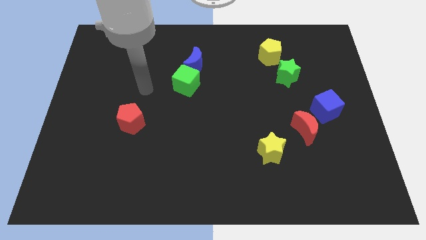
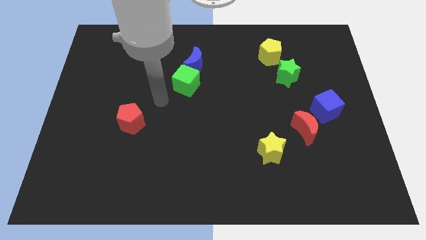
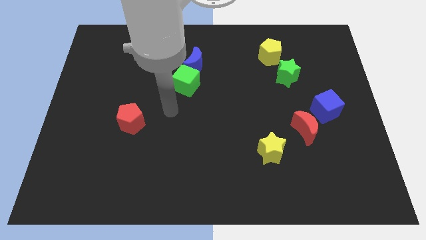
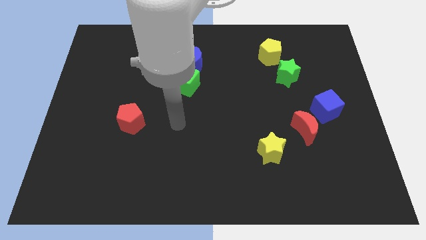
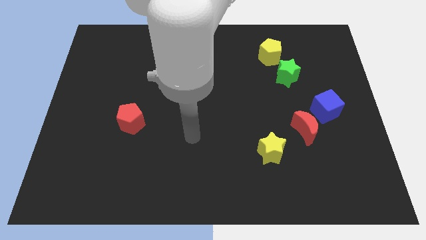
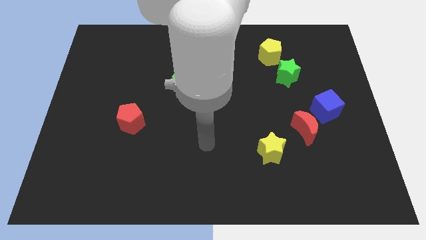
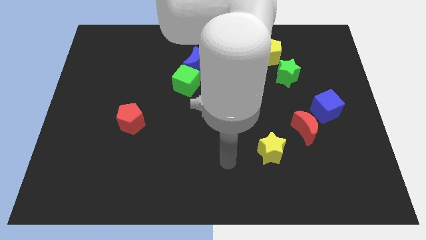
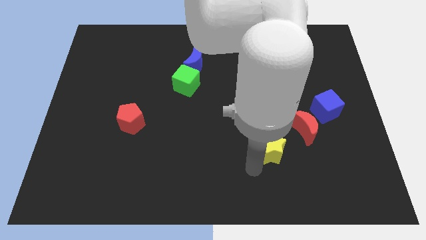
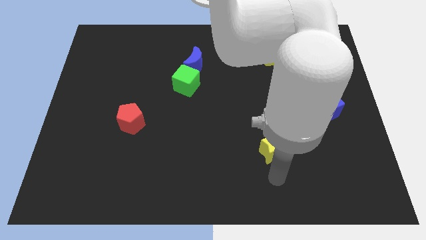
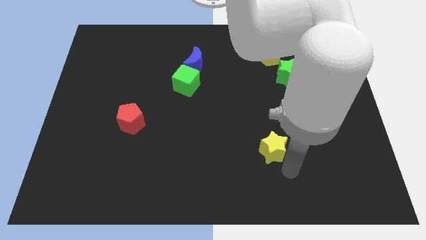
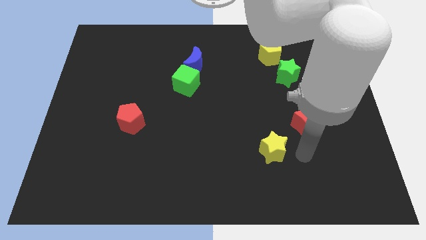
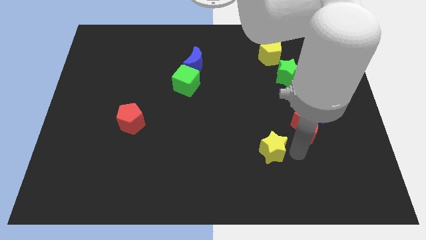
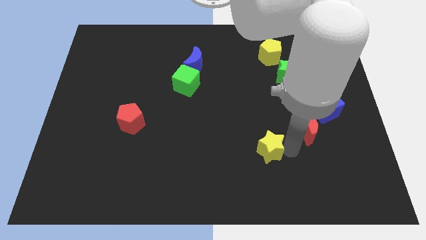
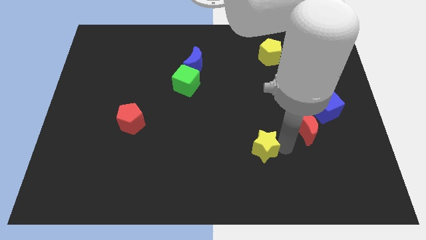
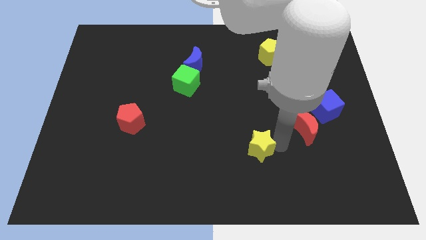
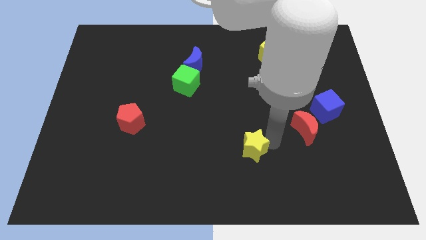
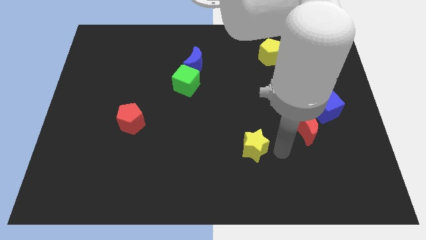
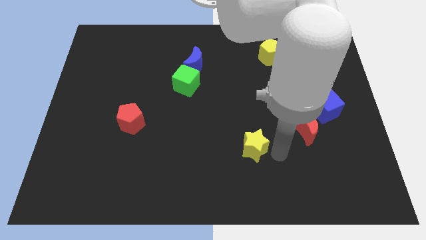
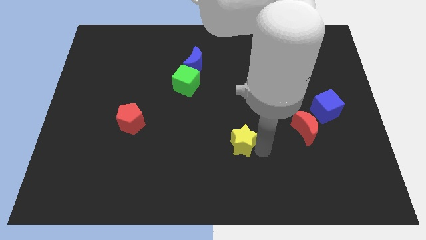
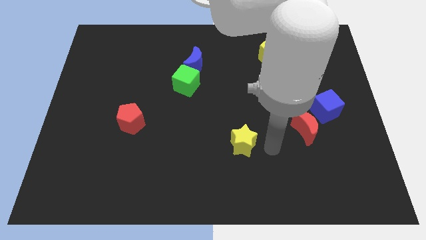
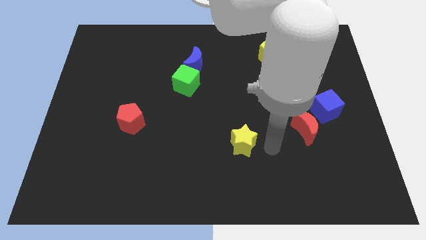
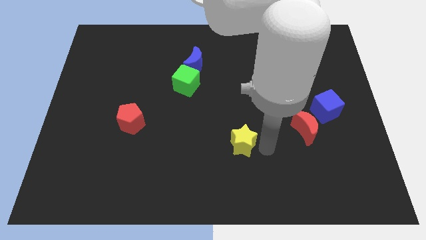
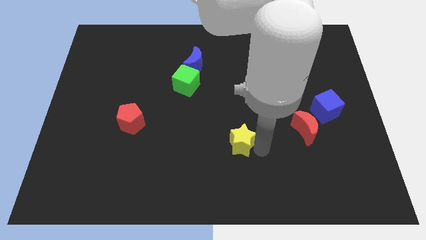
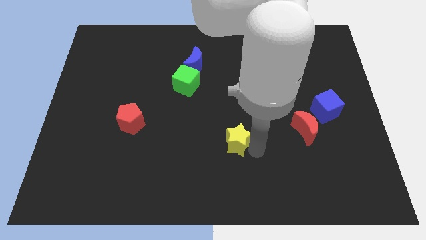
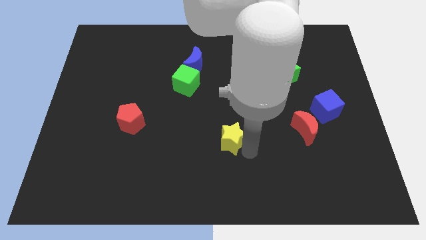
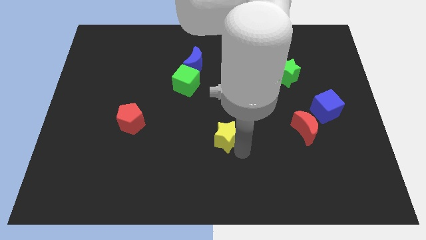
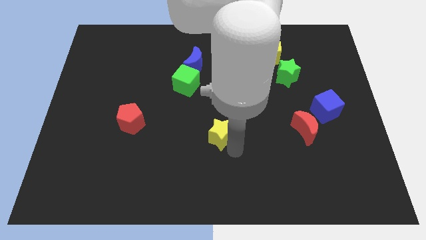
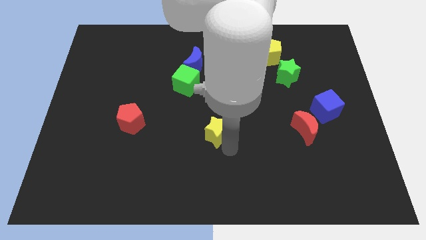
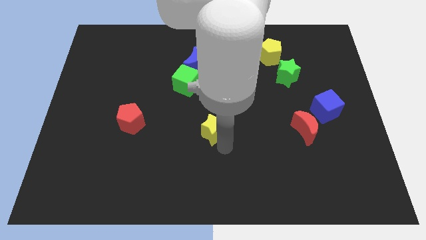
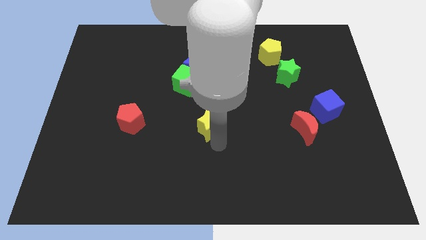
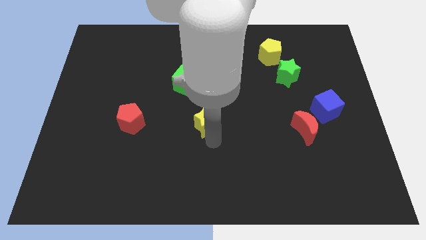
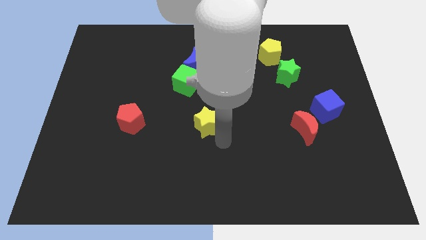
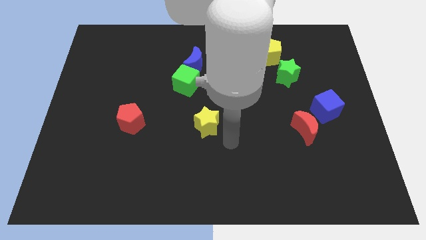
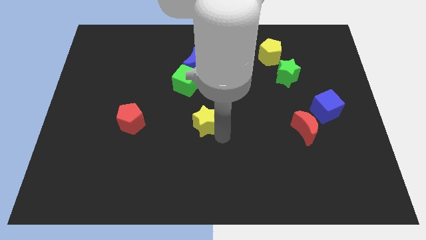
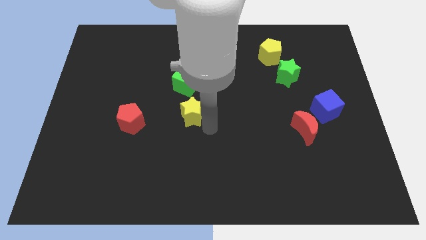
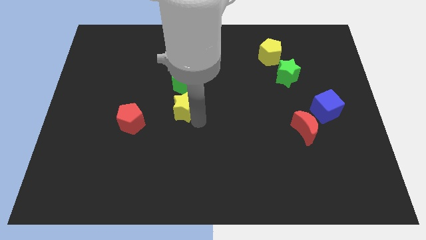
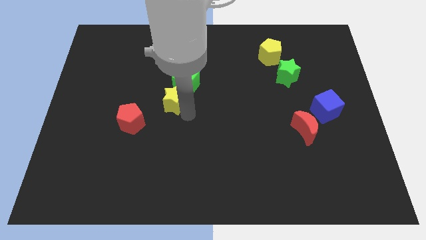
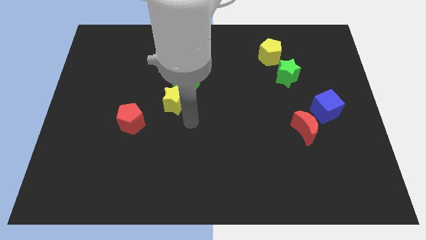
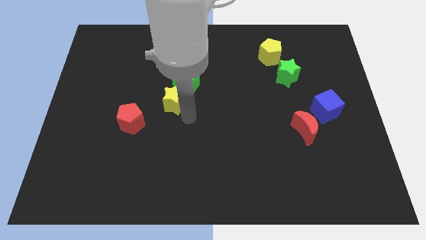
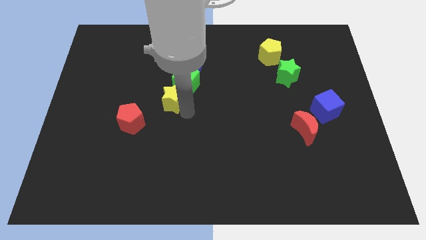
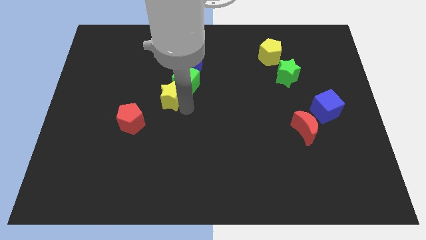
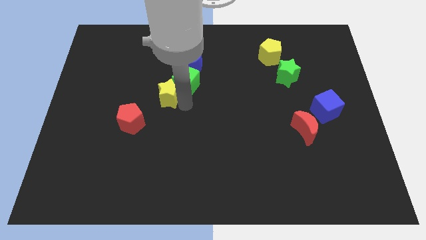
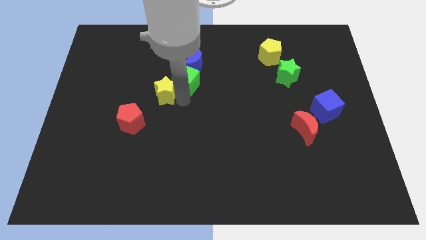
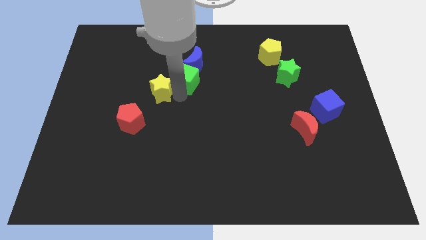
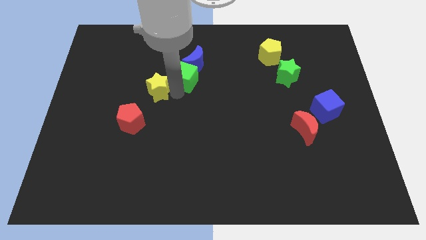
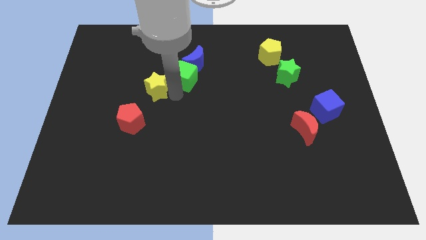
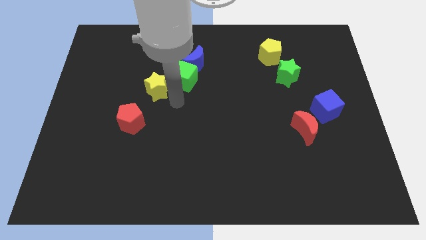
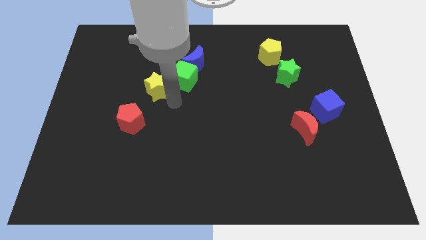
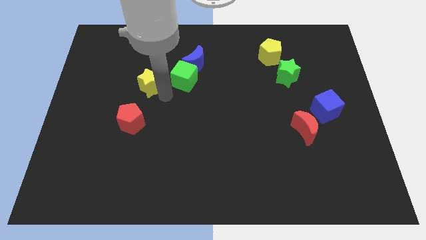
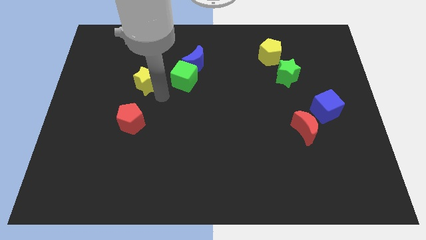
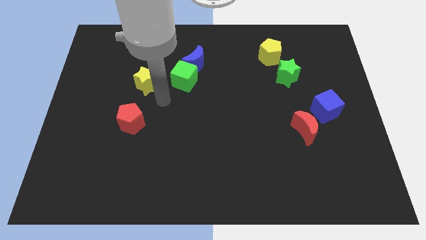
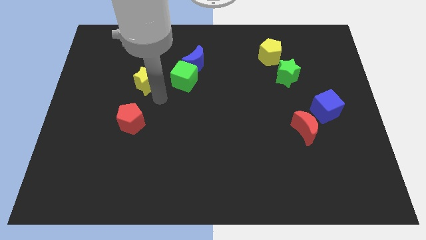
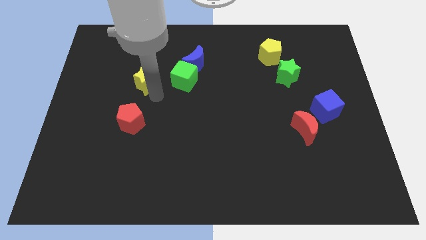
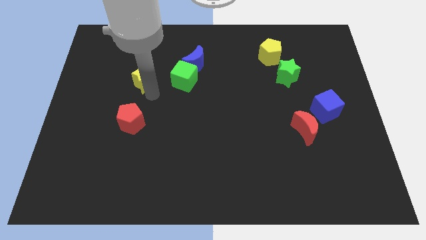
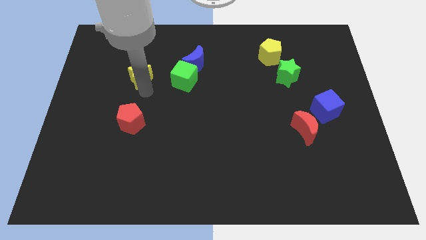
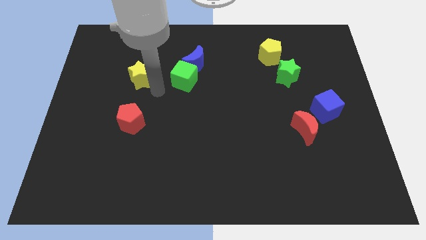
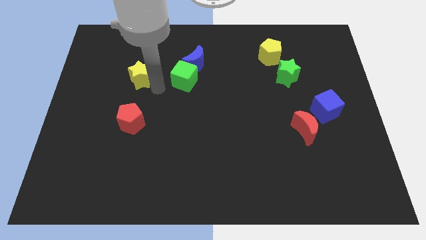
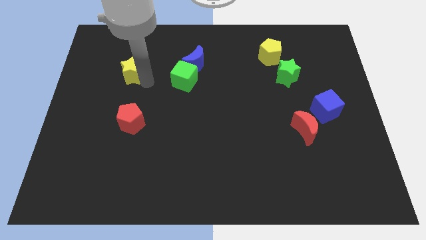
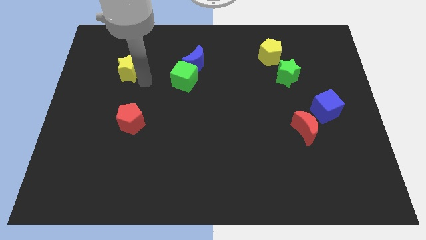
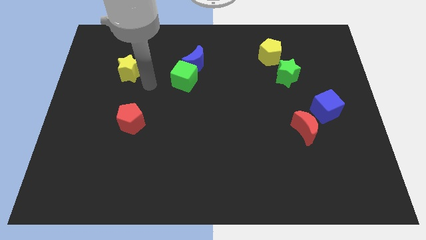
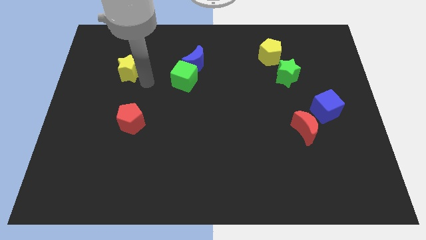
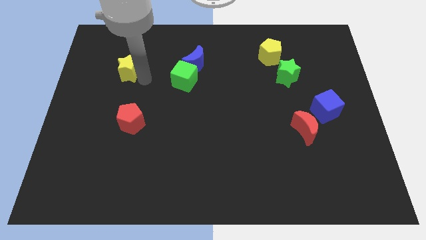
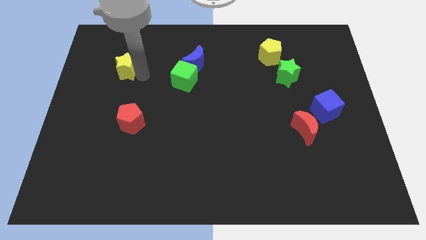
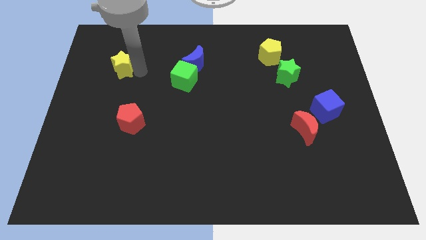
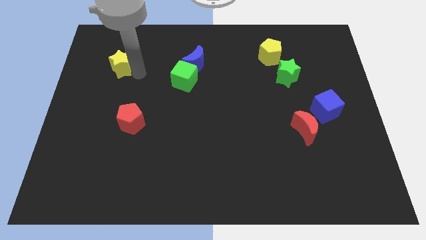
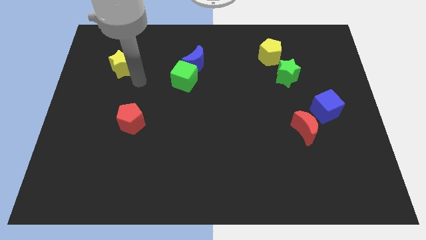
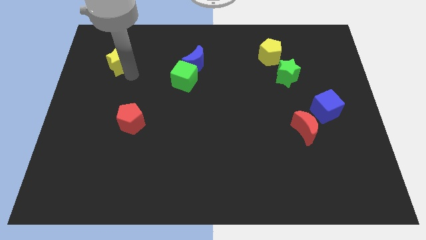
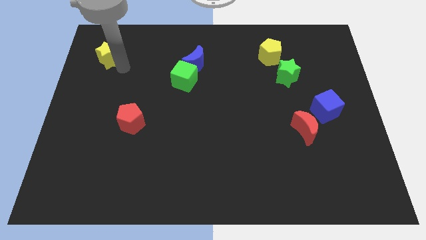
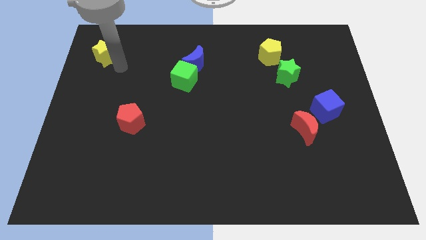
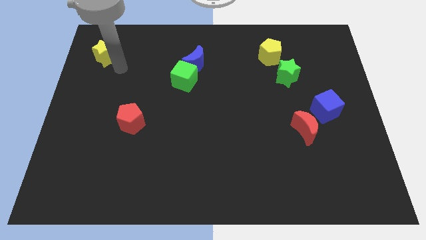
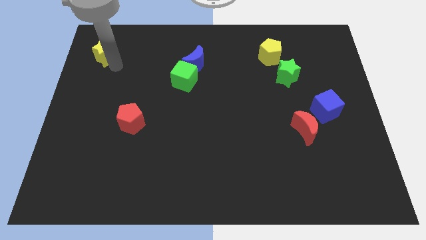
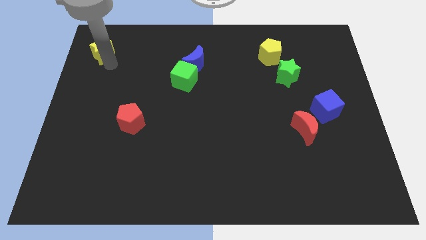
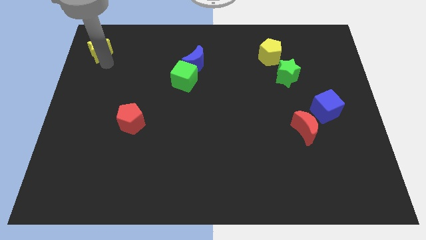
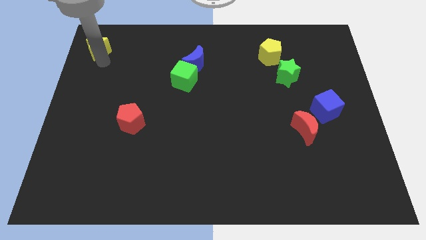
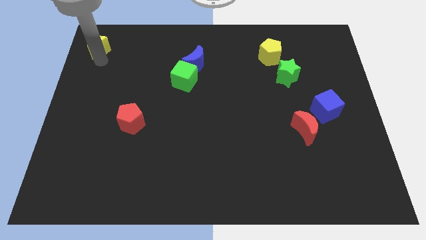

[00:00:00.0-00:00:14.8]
move the yellow star to the top left

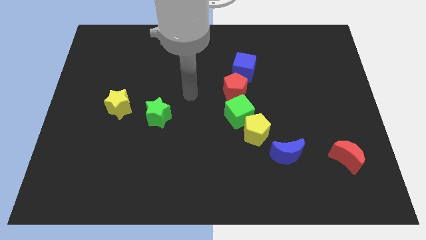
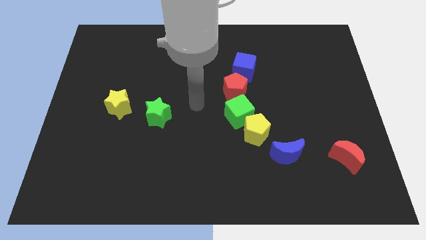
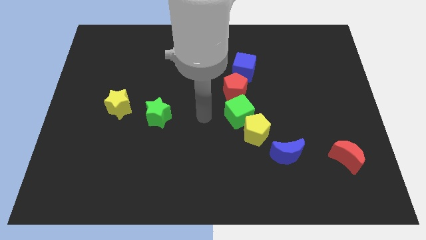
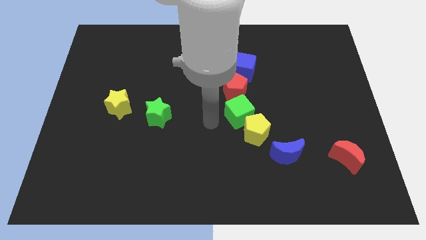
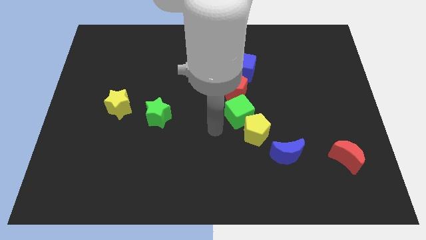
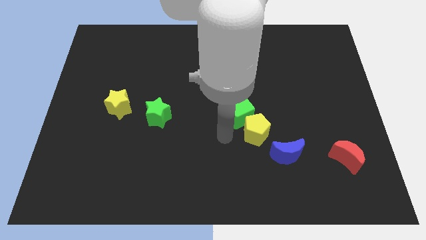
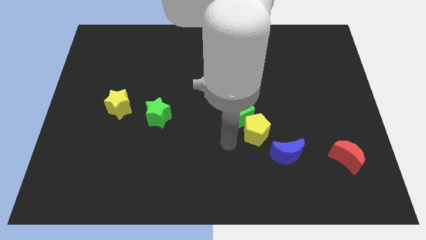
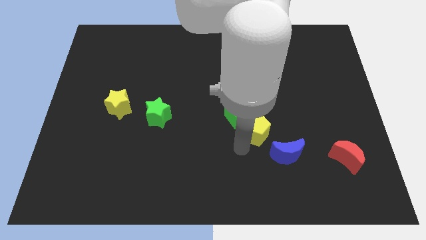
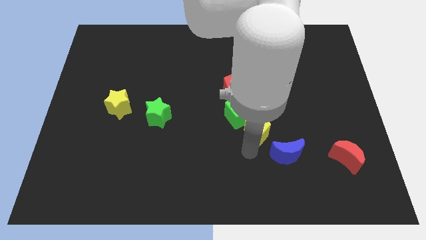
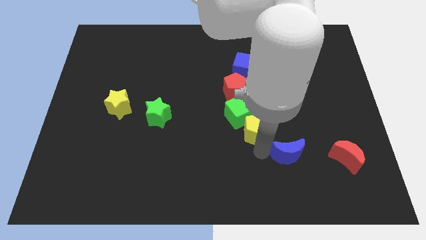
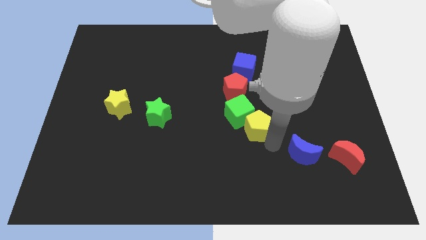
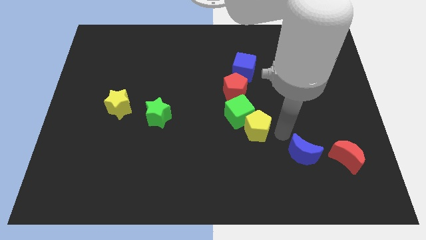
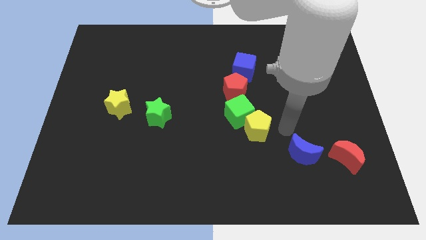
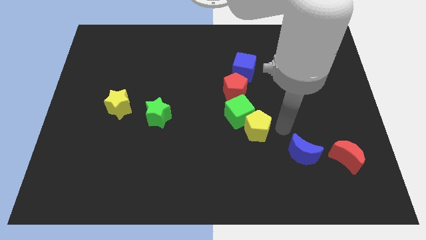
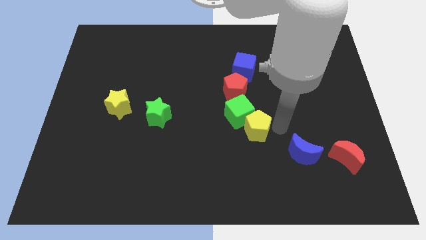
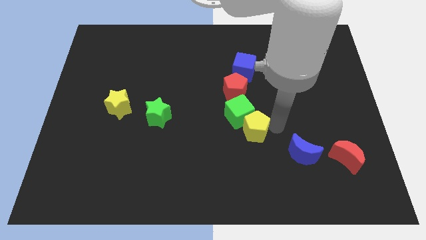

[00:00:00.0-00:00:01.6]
put the yellow pentagon to the middle
